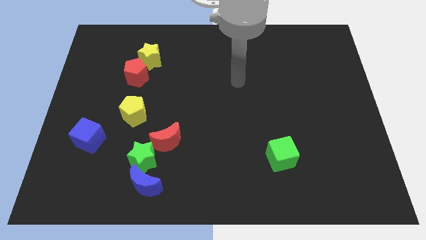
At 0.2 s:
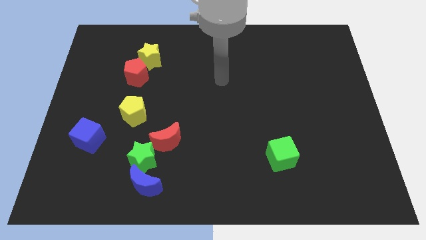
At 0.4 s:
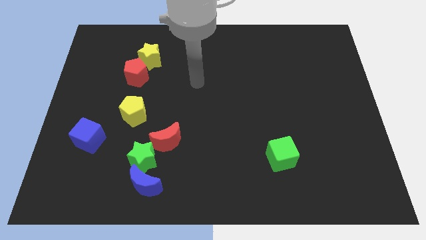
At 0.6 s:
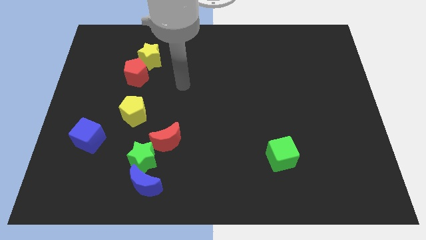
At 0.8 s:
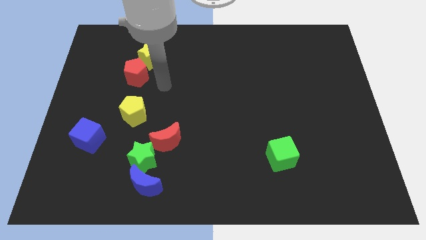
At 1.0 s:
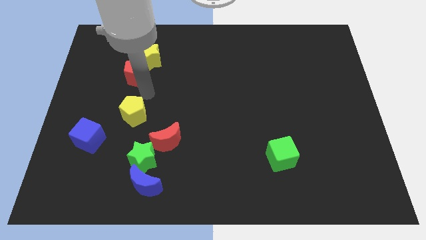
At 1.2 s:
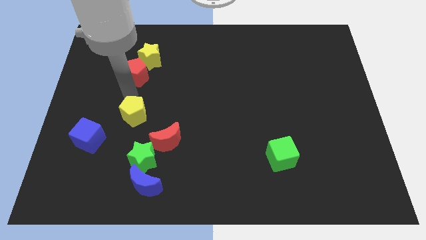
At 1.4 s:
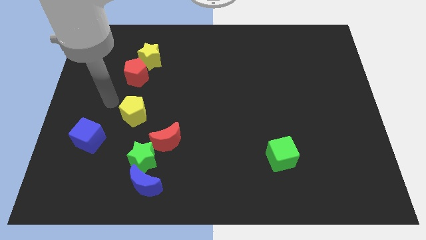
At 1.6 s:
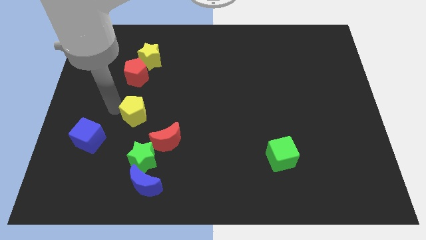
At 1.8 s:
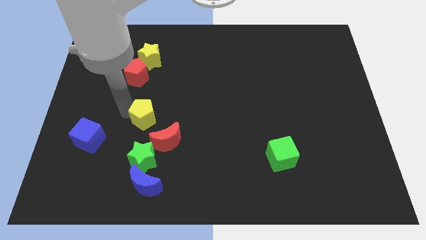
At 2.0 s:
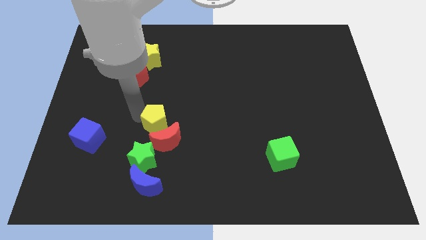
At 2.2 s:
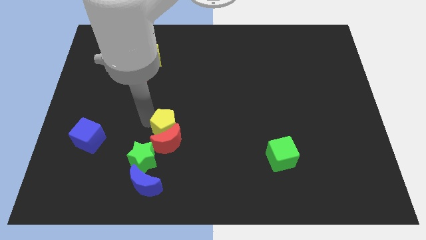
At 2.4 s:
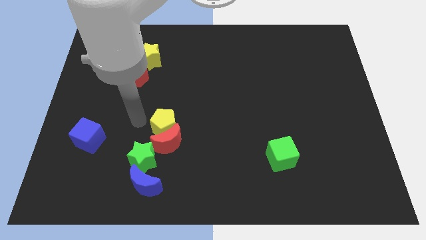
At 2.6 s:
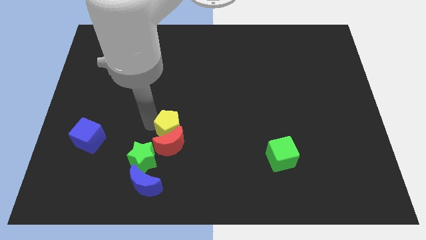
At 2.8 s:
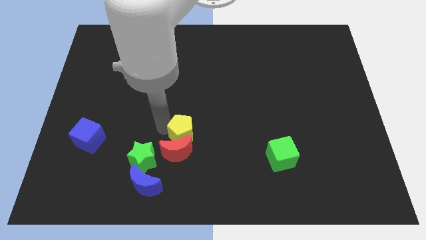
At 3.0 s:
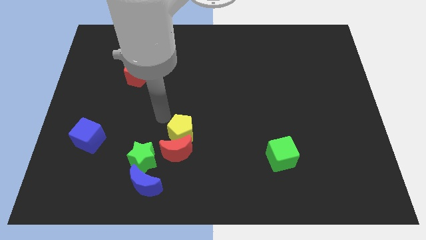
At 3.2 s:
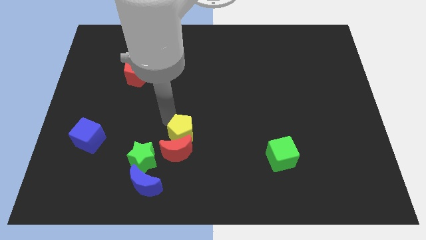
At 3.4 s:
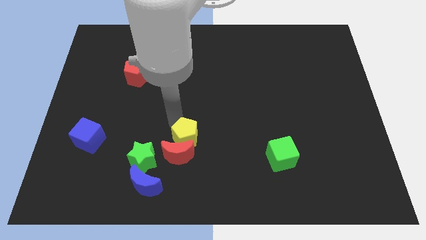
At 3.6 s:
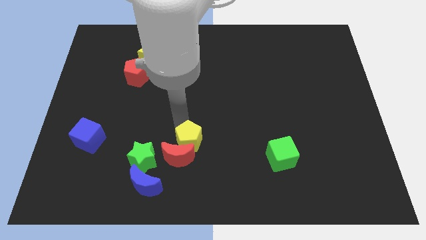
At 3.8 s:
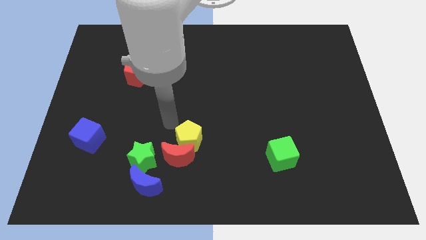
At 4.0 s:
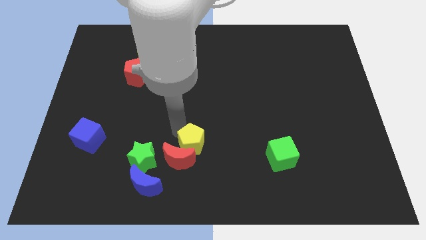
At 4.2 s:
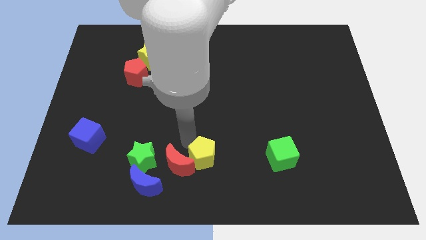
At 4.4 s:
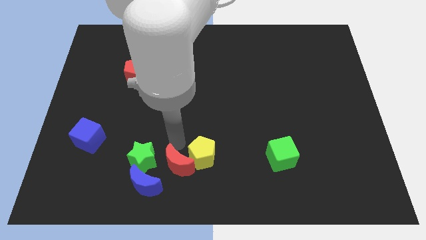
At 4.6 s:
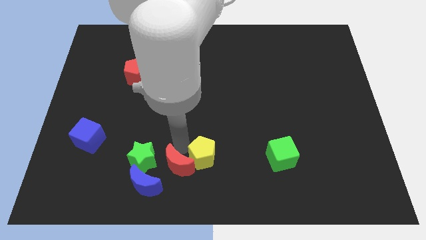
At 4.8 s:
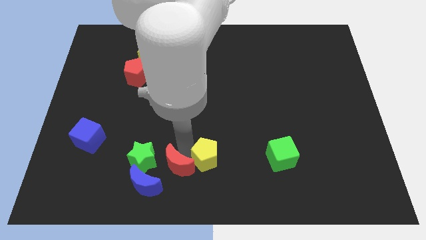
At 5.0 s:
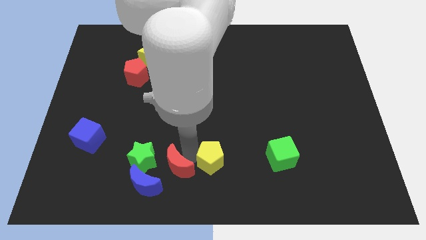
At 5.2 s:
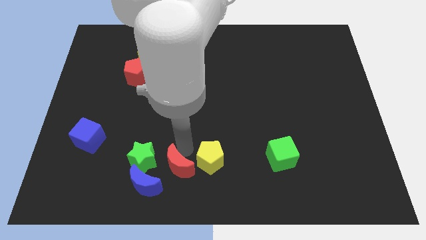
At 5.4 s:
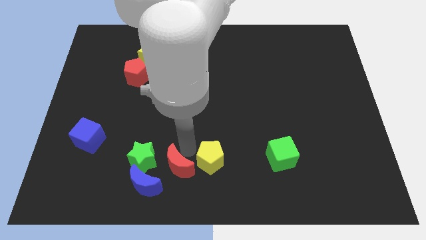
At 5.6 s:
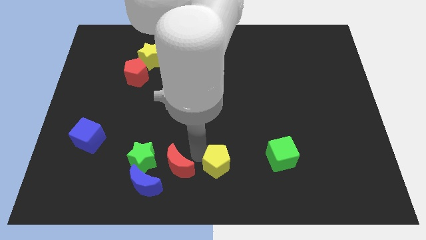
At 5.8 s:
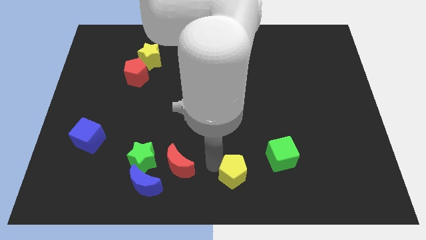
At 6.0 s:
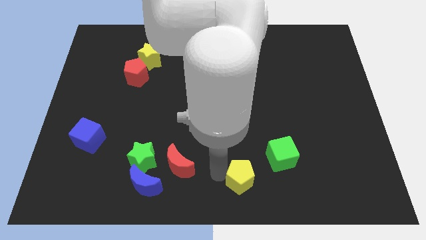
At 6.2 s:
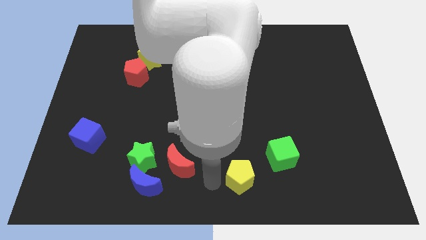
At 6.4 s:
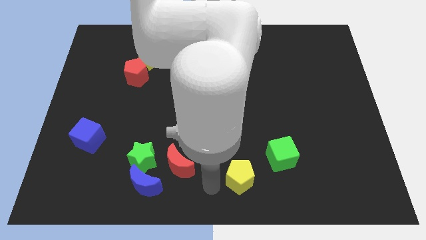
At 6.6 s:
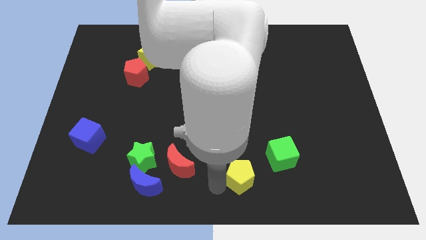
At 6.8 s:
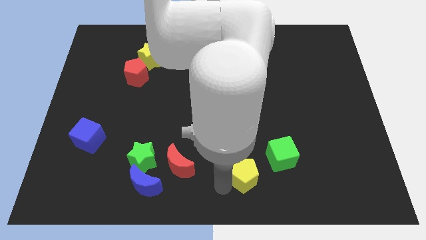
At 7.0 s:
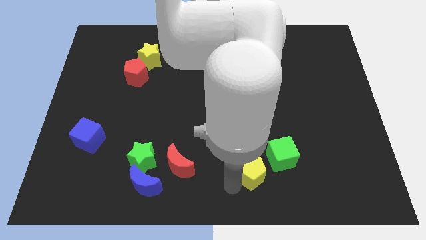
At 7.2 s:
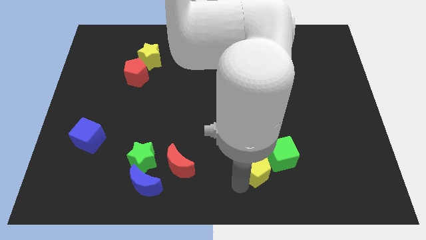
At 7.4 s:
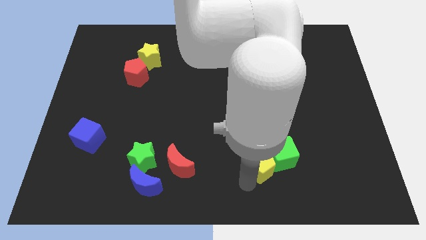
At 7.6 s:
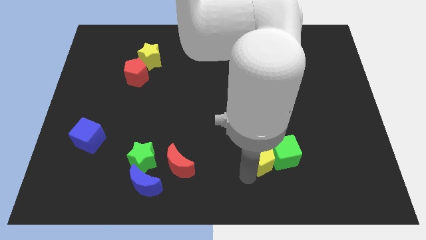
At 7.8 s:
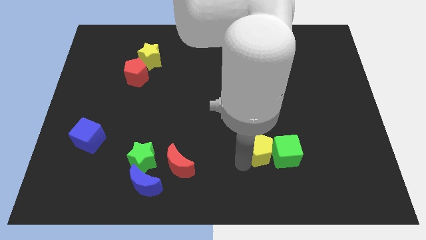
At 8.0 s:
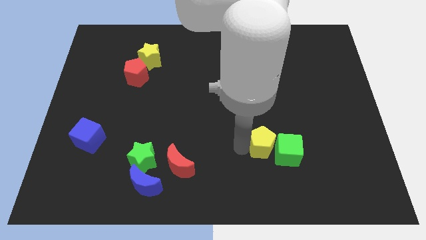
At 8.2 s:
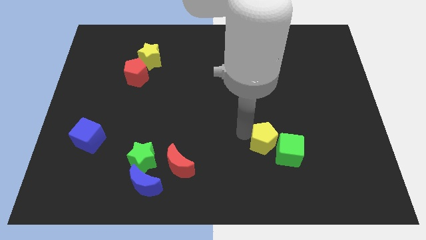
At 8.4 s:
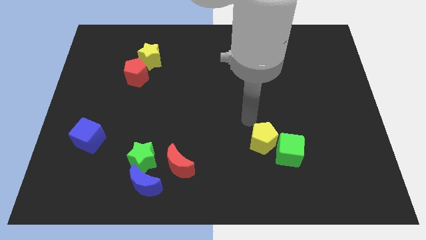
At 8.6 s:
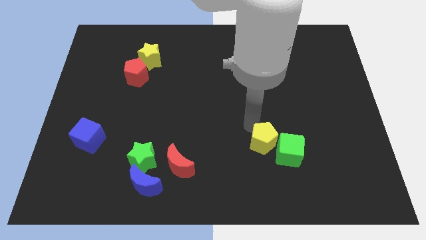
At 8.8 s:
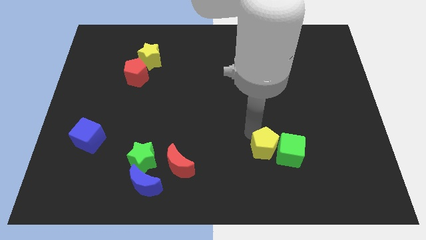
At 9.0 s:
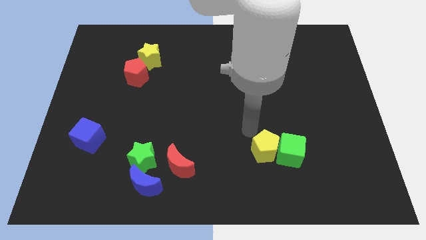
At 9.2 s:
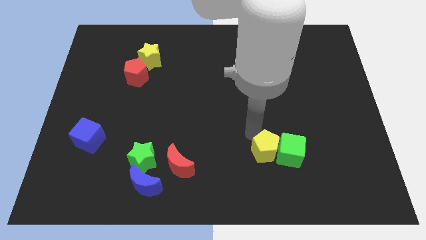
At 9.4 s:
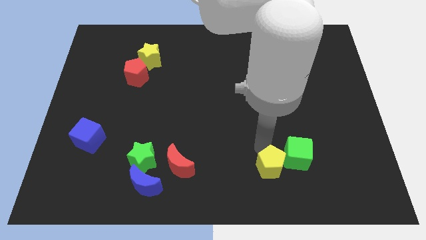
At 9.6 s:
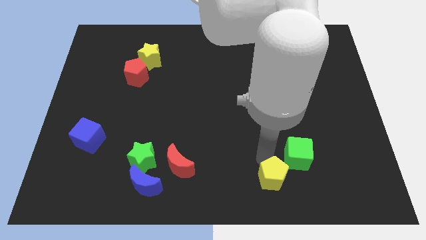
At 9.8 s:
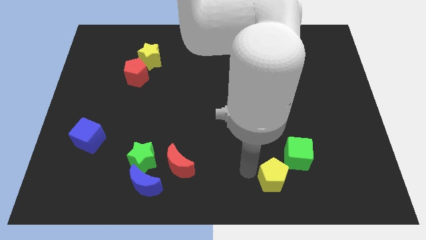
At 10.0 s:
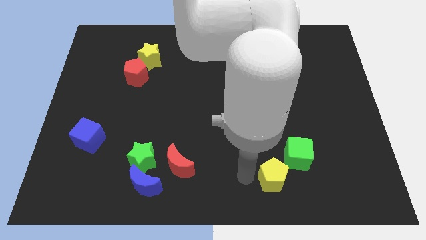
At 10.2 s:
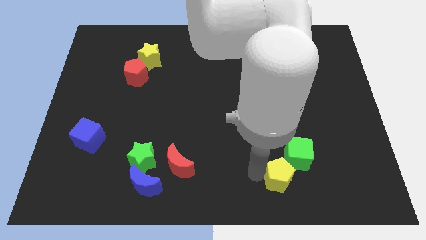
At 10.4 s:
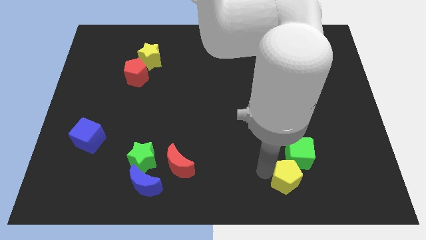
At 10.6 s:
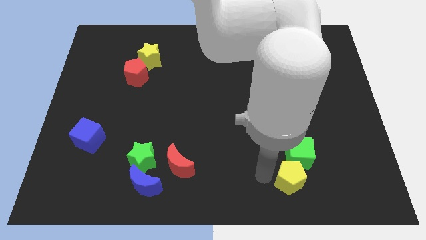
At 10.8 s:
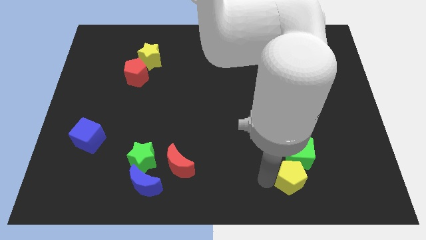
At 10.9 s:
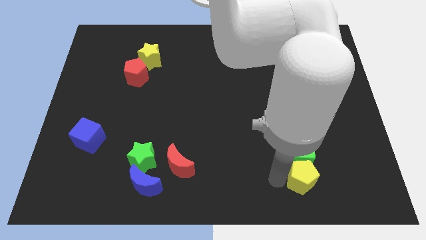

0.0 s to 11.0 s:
move the yellow pentagon diagonally down and to the right of the green cube

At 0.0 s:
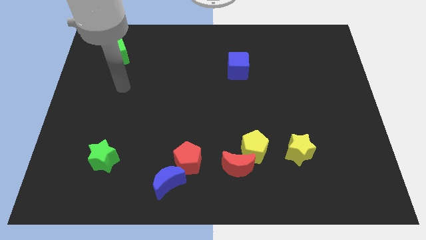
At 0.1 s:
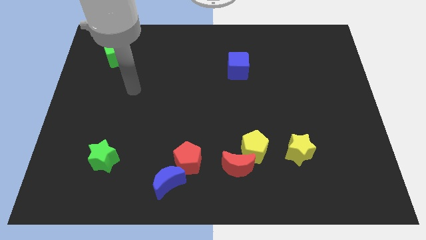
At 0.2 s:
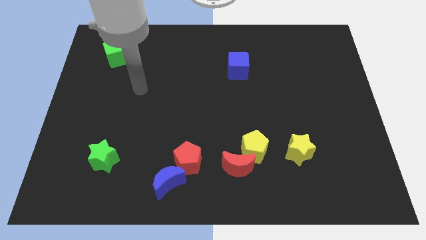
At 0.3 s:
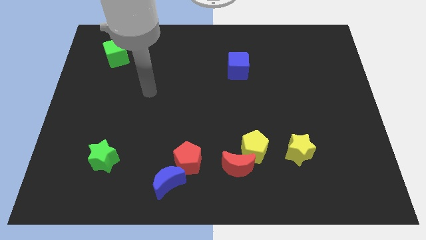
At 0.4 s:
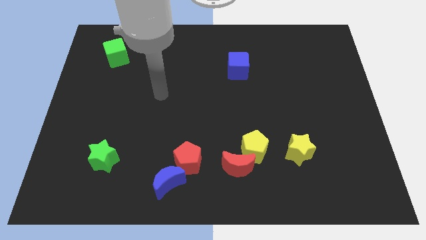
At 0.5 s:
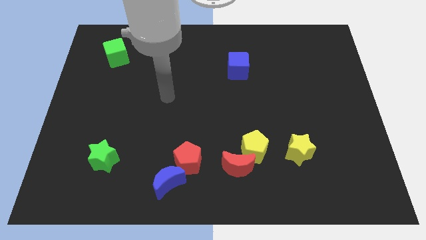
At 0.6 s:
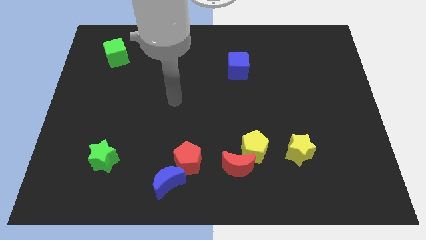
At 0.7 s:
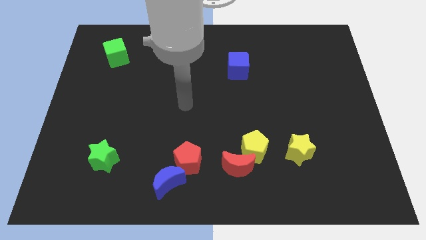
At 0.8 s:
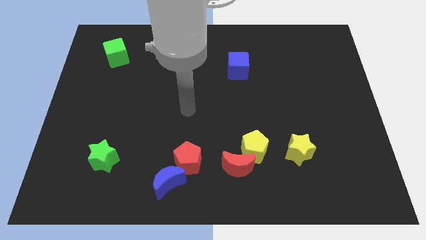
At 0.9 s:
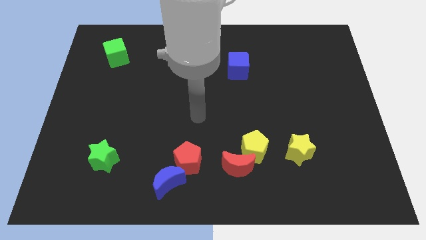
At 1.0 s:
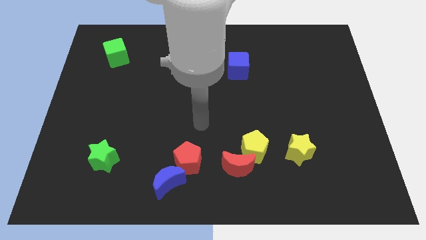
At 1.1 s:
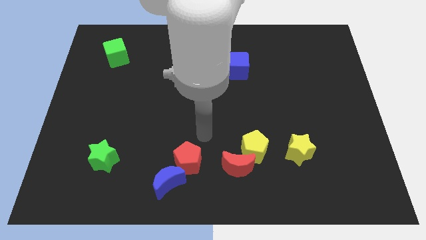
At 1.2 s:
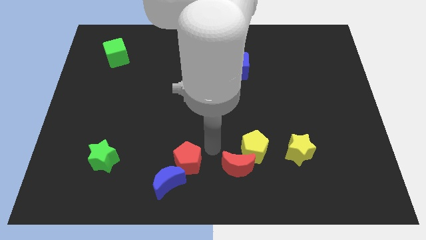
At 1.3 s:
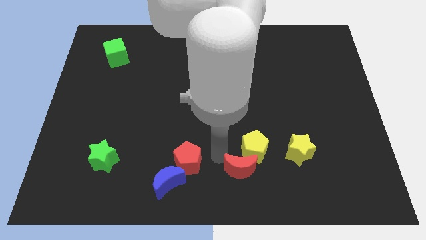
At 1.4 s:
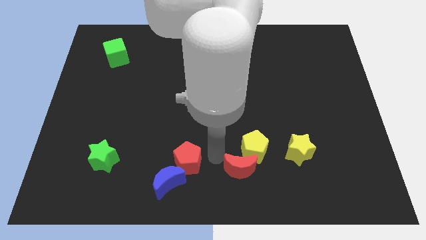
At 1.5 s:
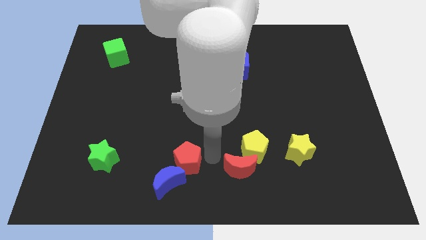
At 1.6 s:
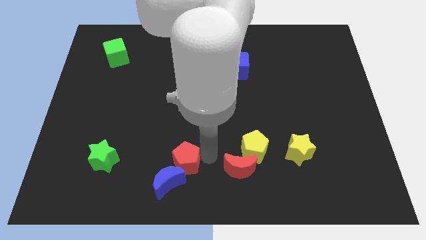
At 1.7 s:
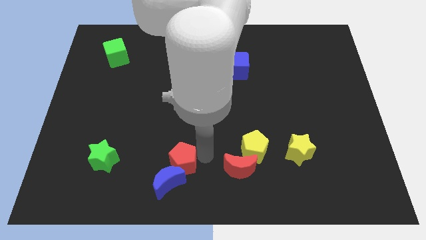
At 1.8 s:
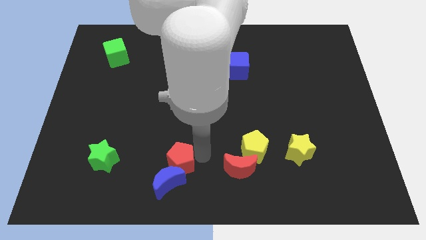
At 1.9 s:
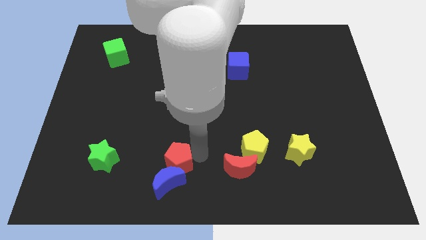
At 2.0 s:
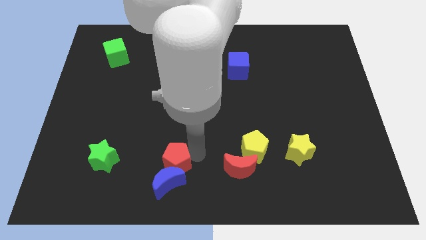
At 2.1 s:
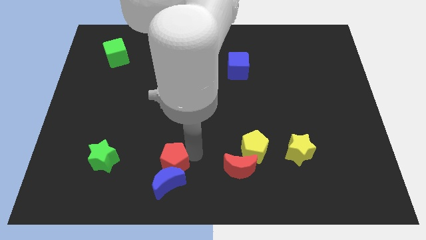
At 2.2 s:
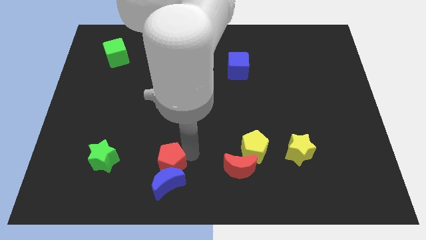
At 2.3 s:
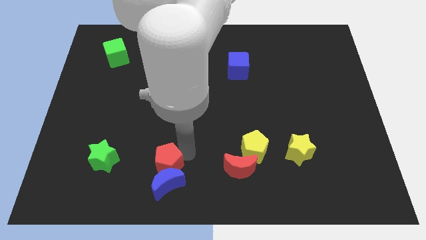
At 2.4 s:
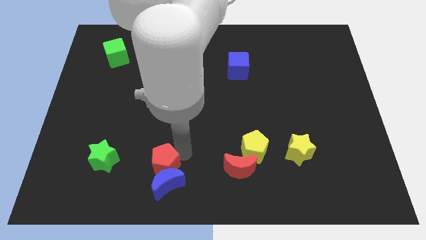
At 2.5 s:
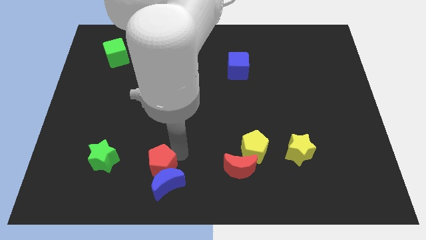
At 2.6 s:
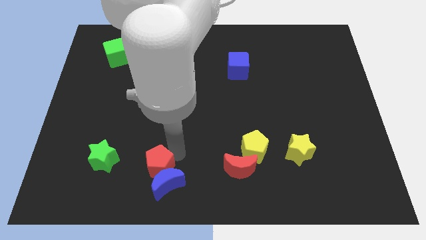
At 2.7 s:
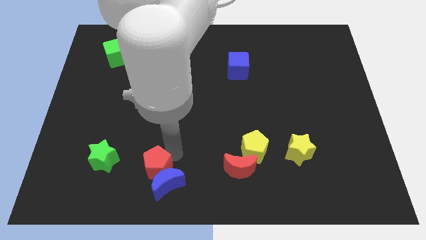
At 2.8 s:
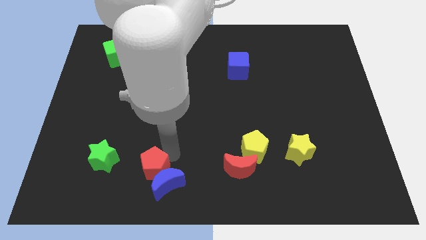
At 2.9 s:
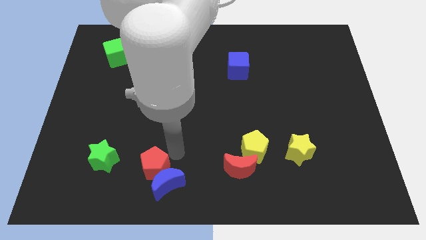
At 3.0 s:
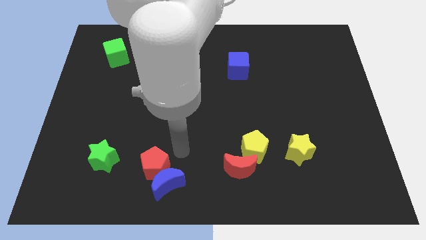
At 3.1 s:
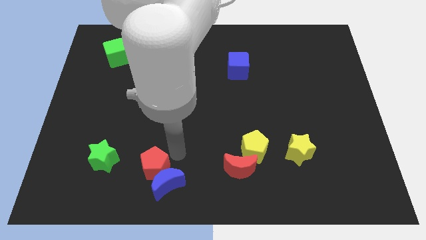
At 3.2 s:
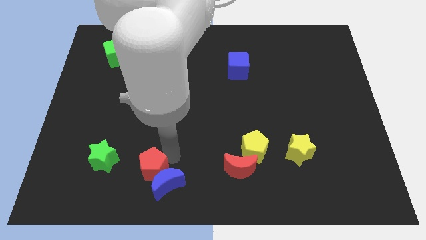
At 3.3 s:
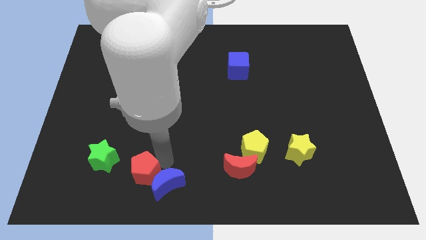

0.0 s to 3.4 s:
slide the red pentagon to the bottom right of the green star
